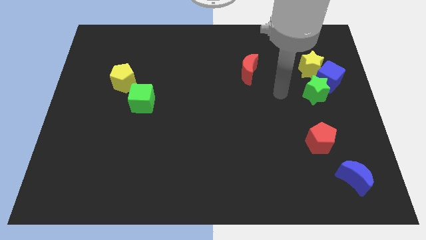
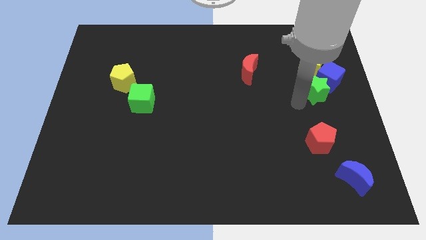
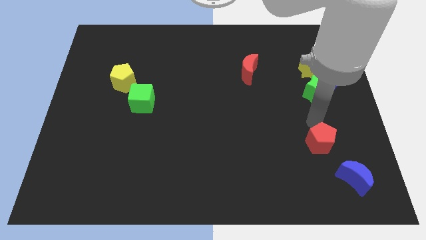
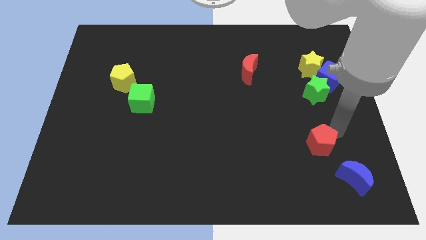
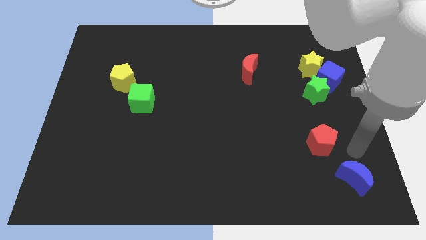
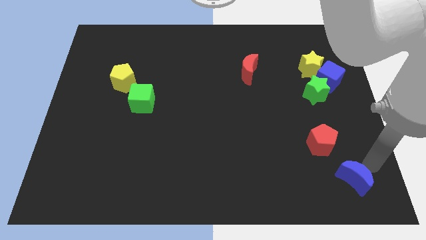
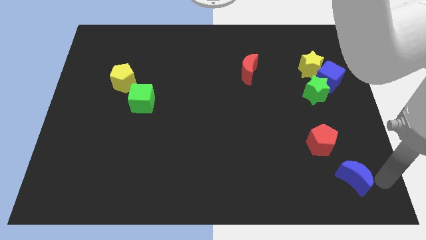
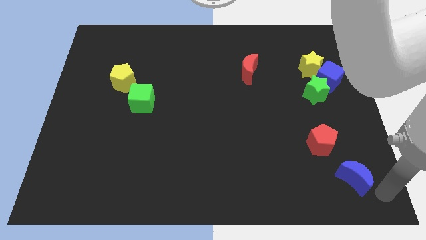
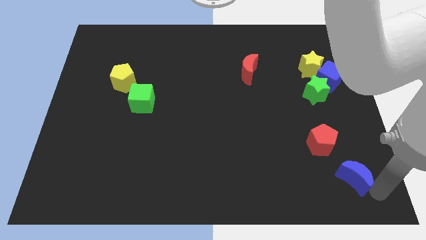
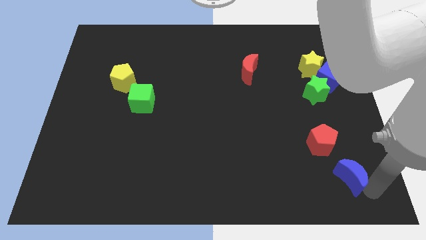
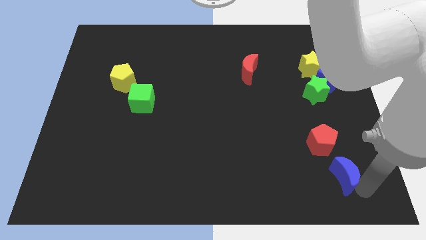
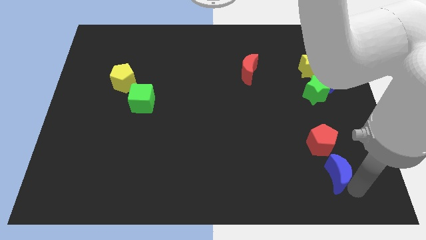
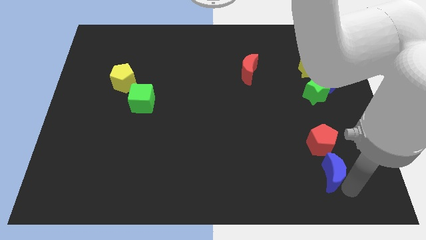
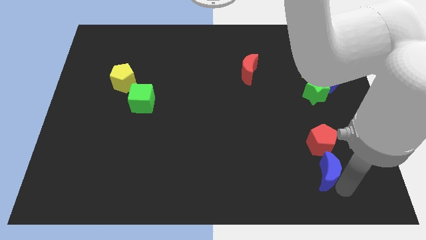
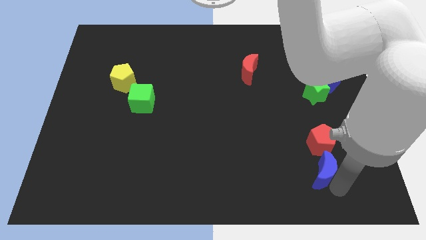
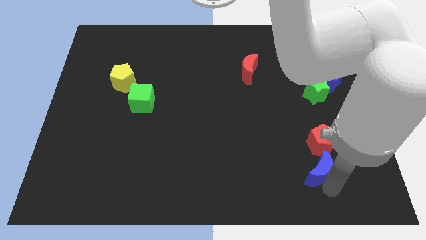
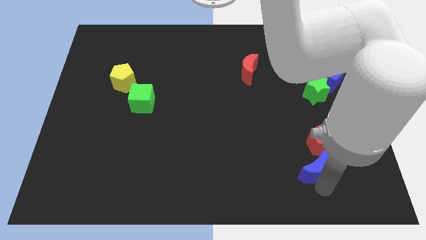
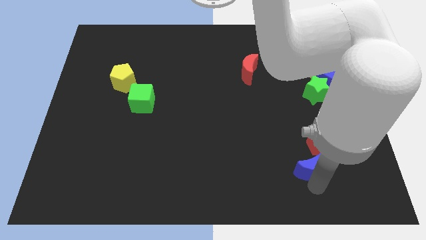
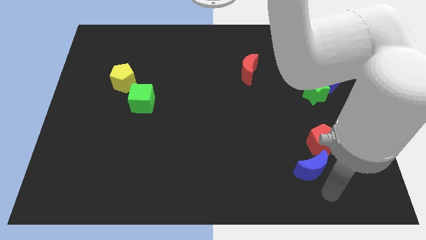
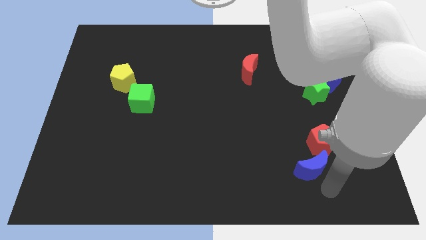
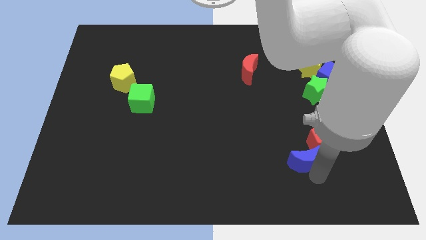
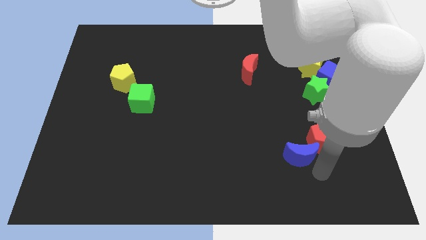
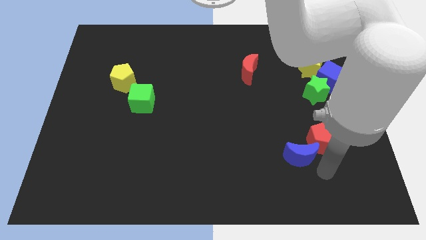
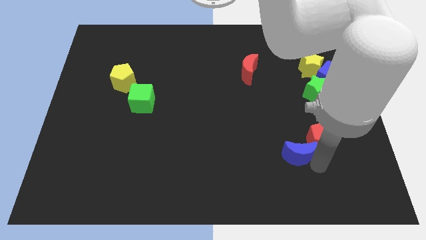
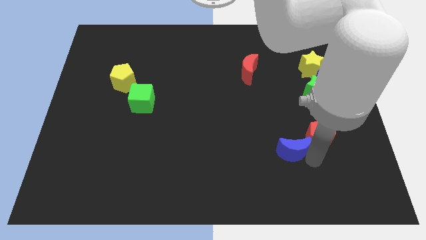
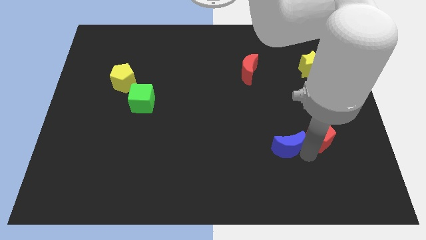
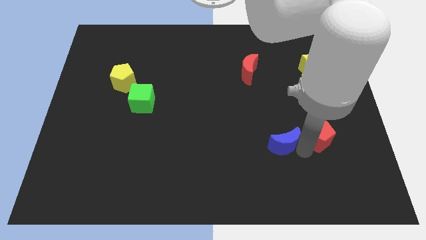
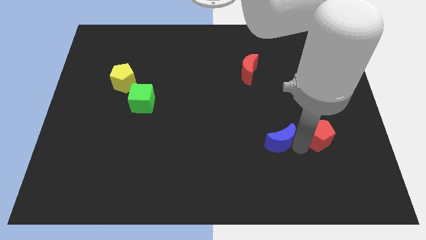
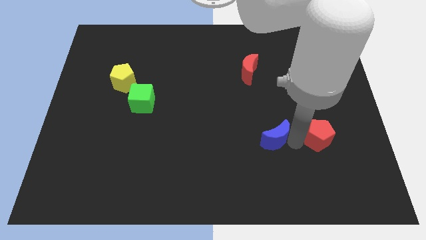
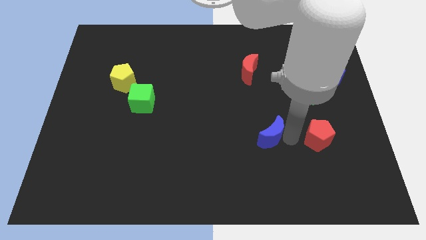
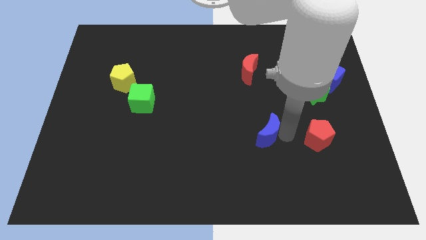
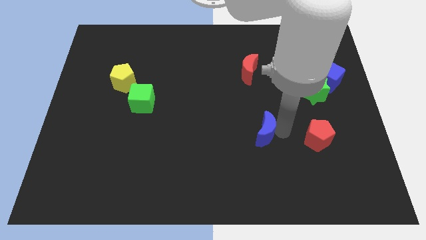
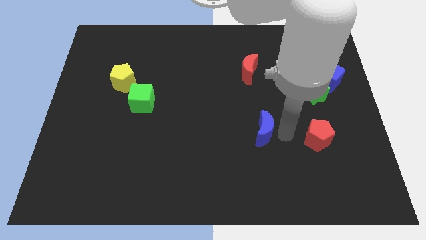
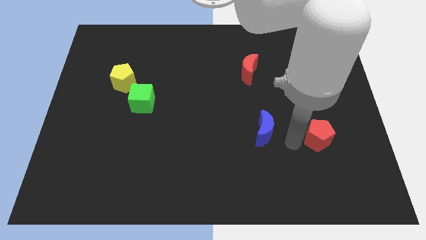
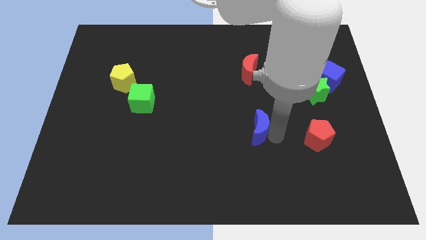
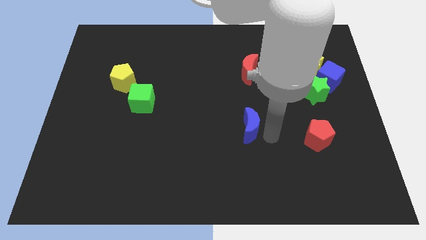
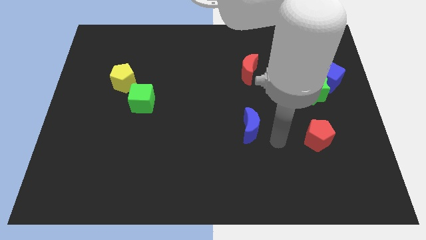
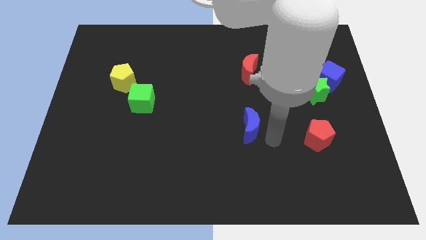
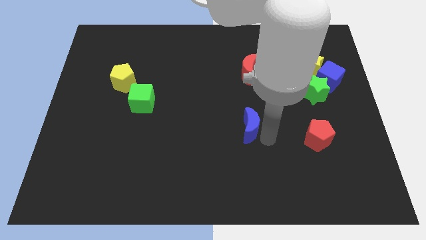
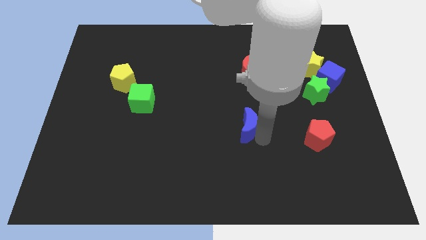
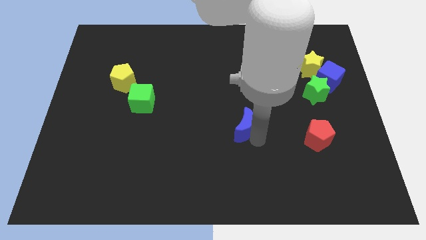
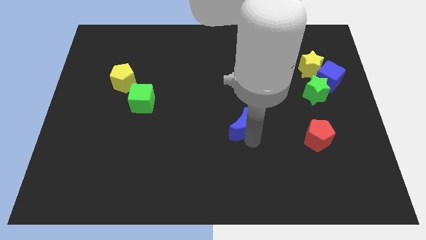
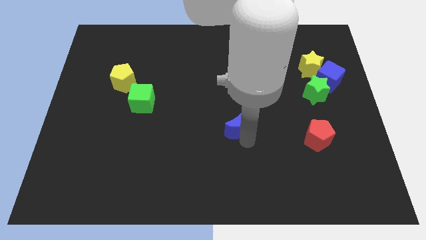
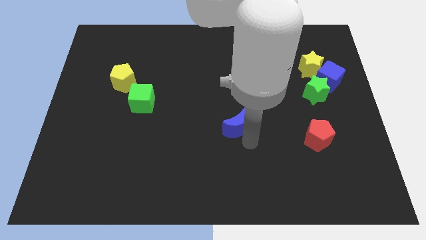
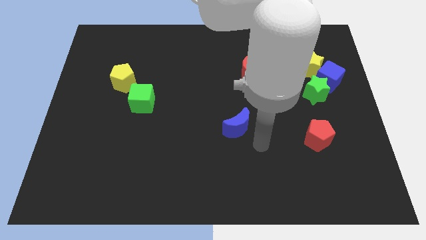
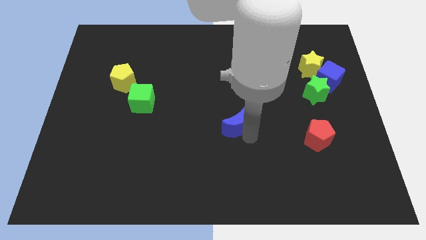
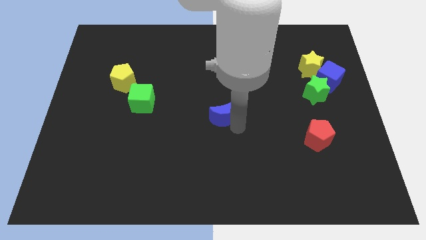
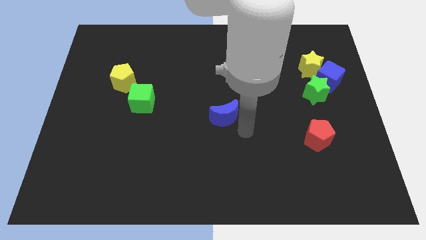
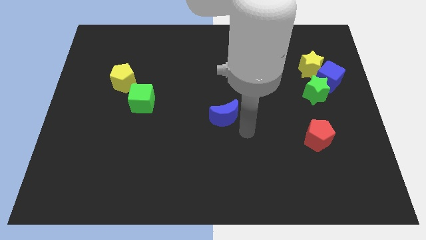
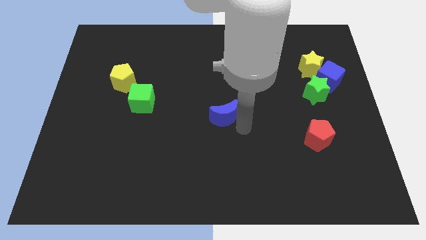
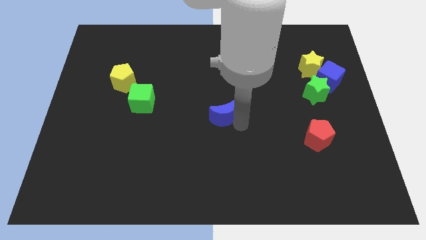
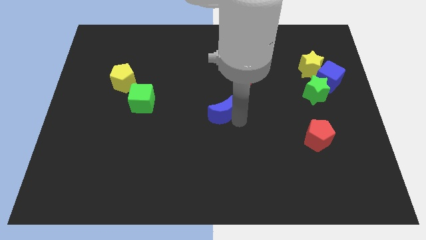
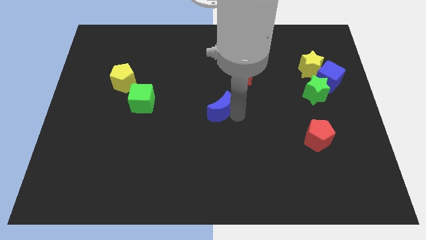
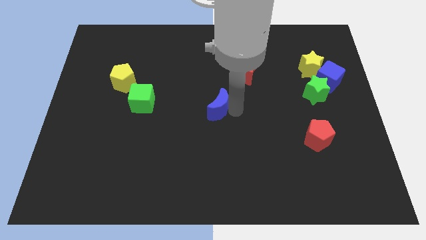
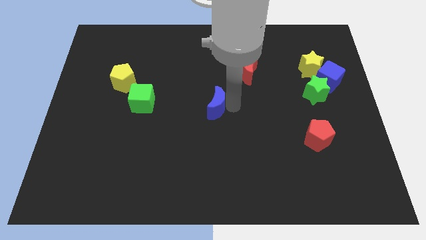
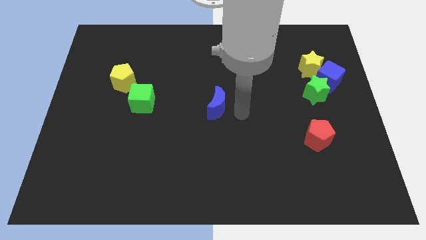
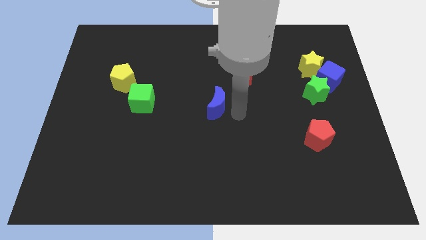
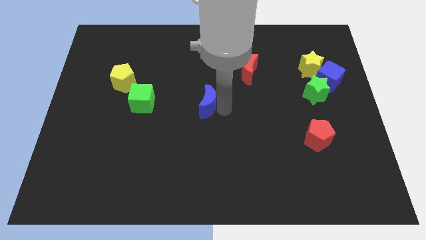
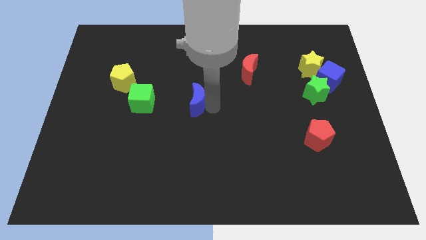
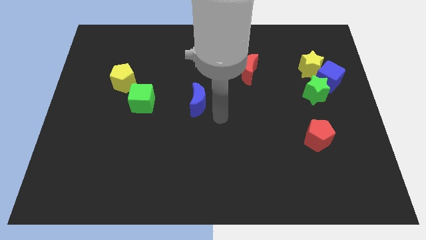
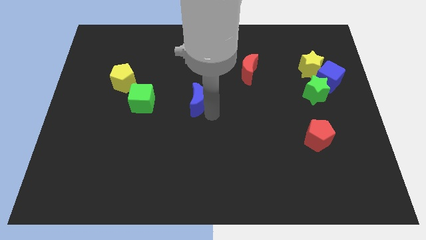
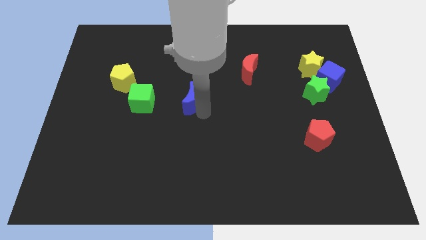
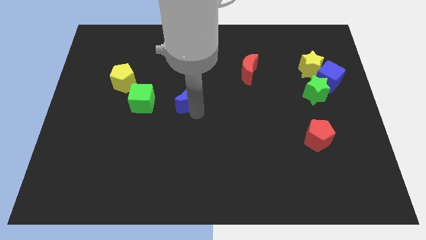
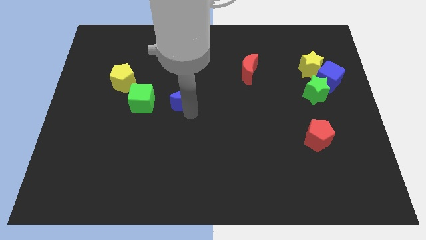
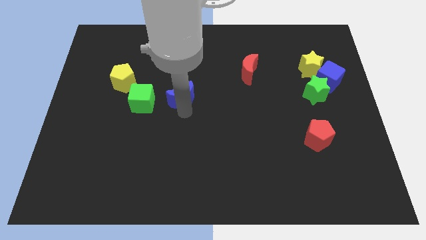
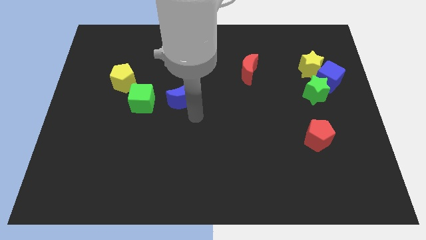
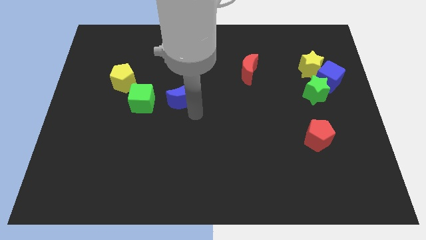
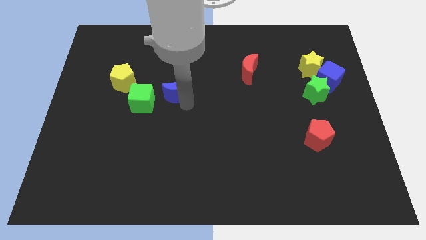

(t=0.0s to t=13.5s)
move the blue moon to the right of the yellow pentagon

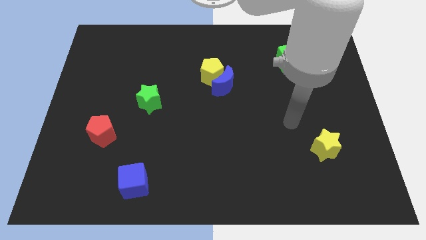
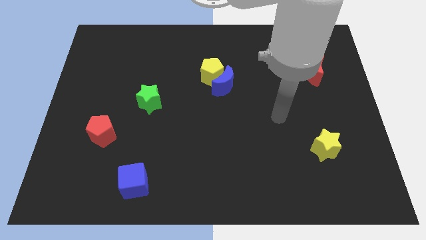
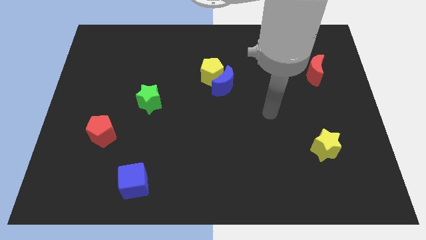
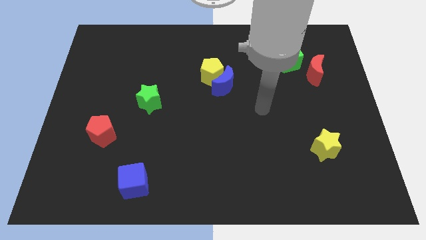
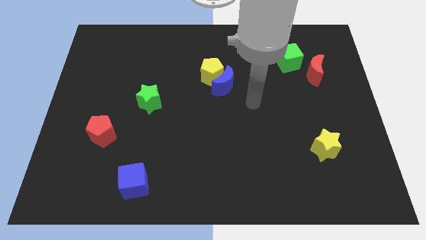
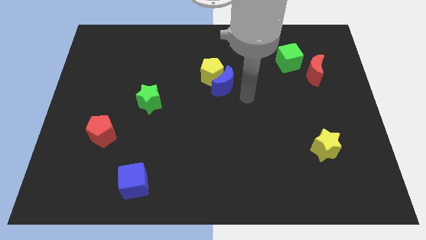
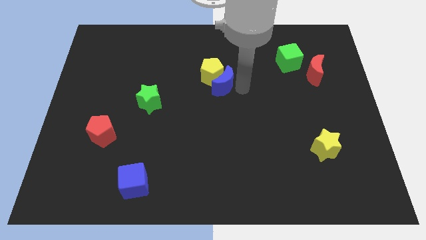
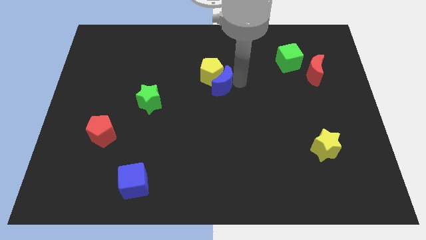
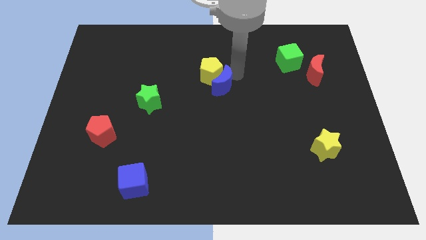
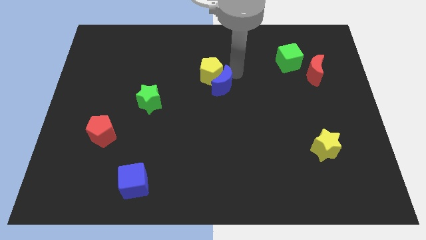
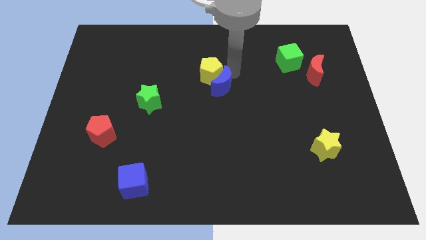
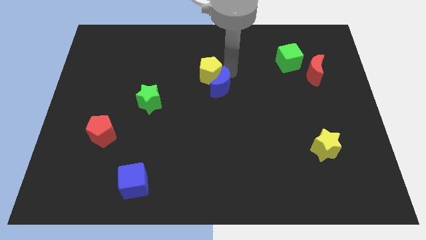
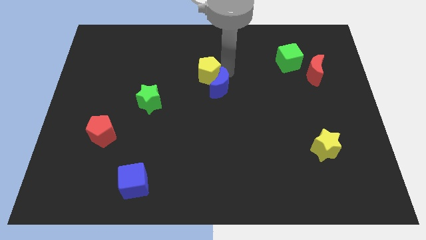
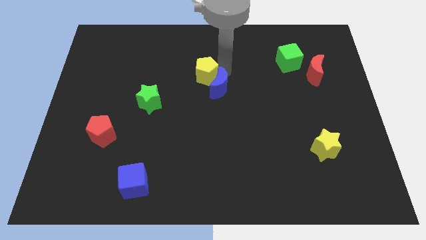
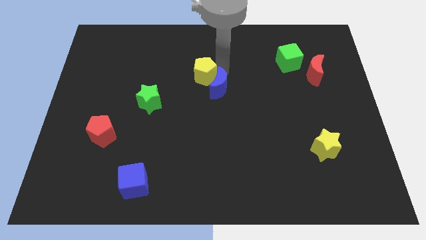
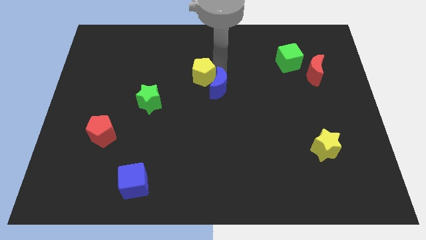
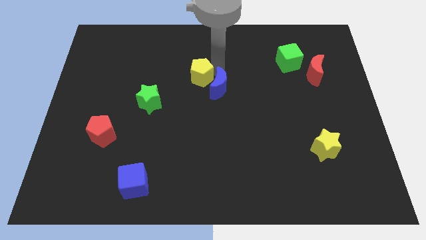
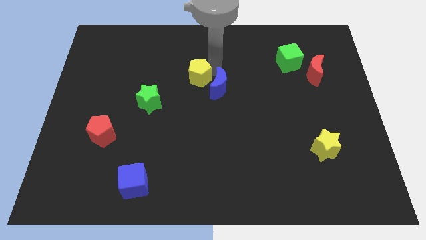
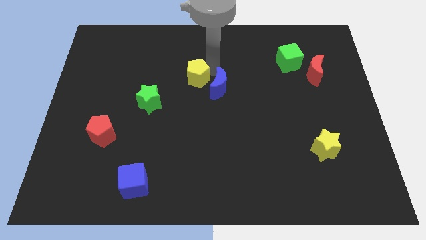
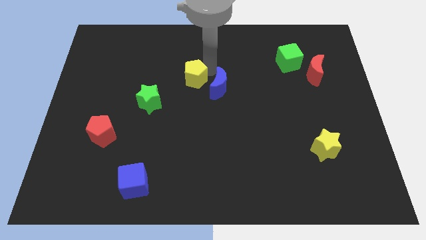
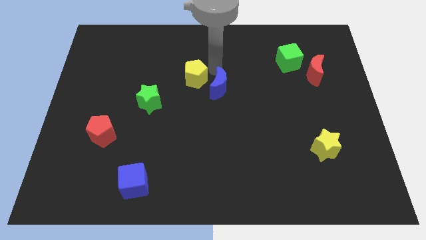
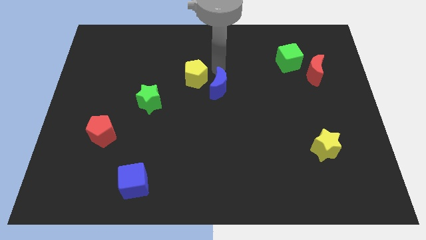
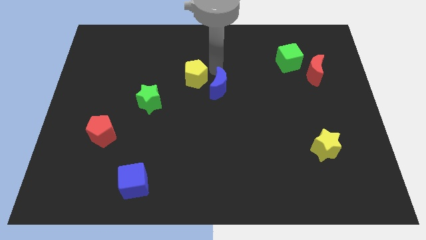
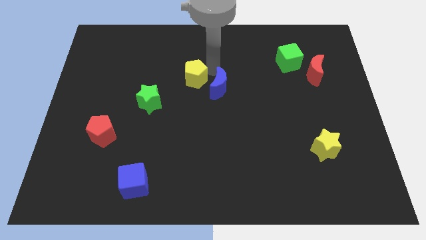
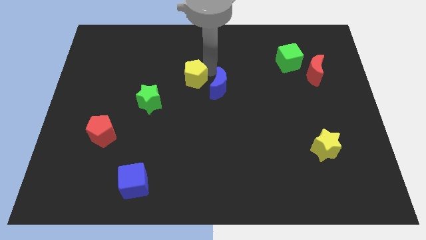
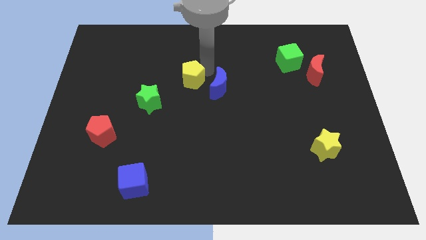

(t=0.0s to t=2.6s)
put the yellow pentagon to the top right side of the green star
